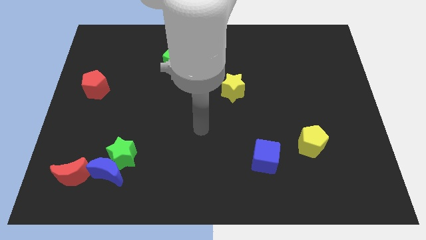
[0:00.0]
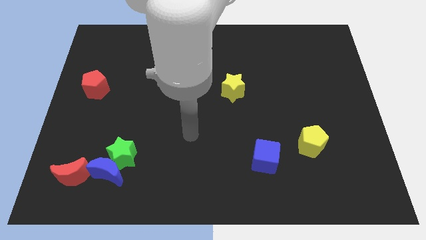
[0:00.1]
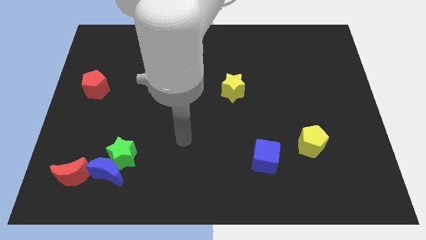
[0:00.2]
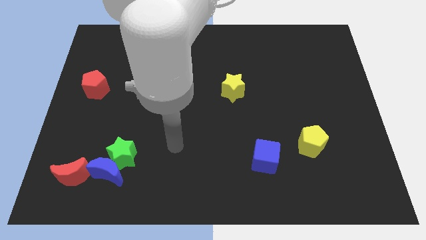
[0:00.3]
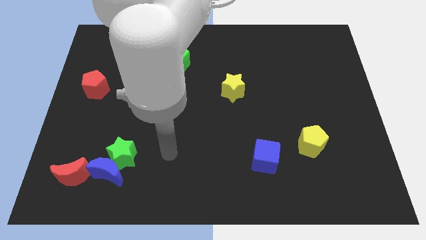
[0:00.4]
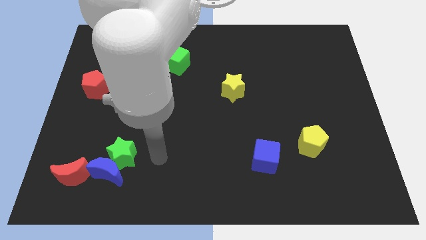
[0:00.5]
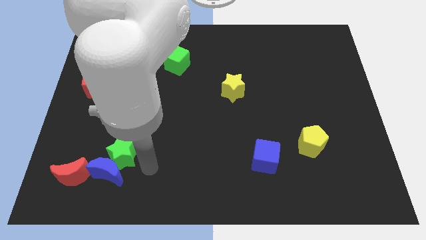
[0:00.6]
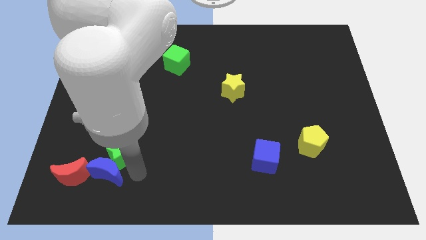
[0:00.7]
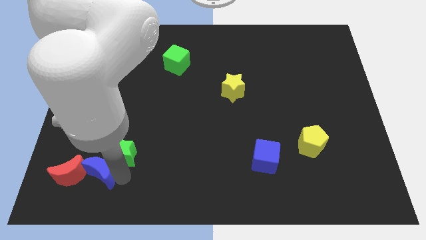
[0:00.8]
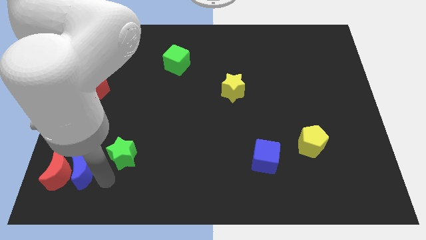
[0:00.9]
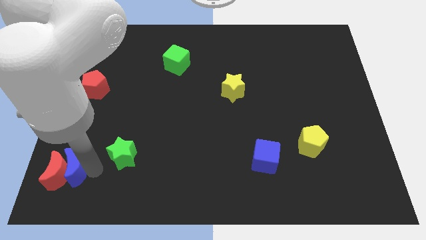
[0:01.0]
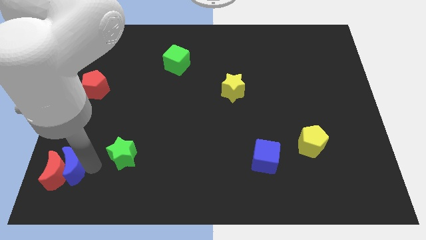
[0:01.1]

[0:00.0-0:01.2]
move the green star away from the blue moon

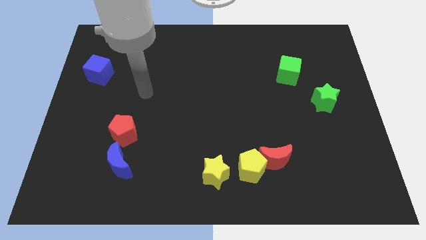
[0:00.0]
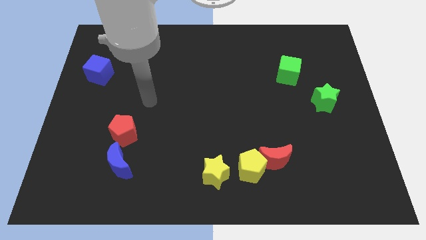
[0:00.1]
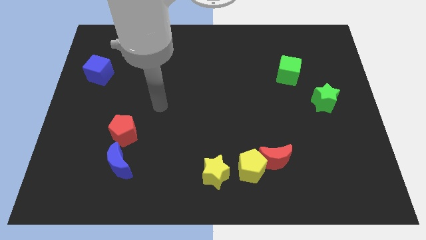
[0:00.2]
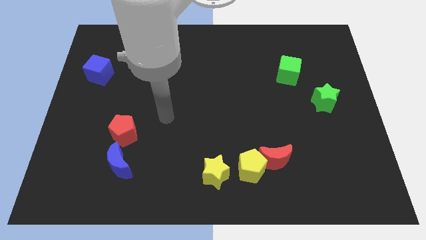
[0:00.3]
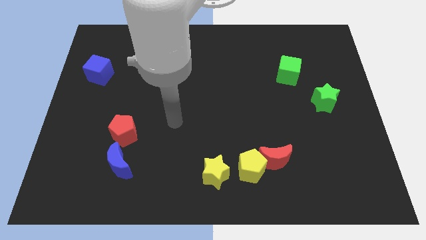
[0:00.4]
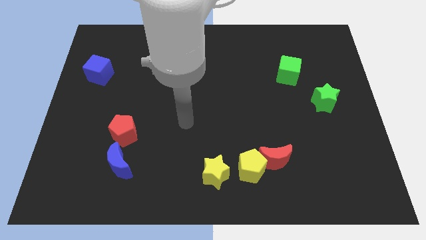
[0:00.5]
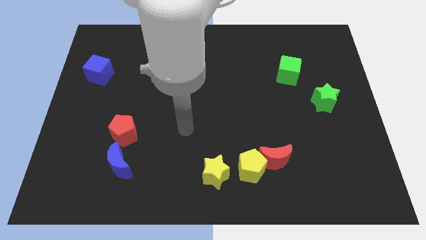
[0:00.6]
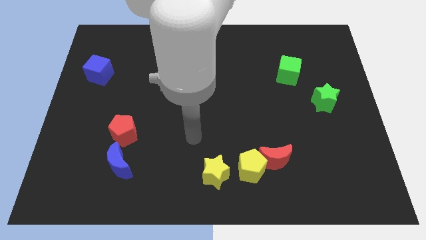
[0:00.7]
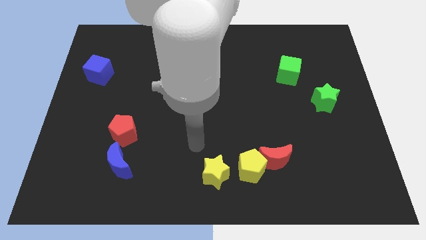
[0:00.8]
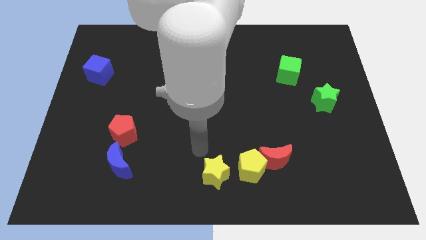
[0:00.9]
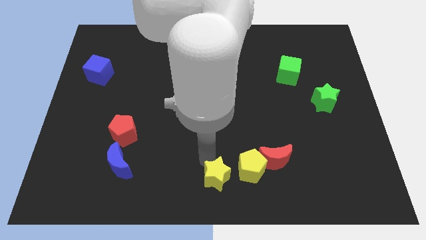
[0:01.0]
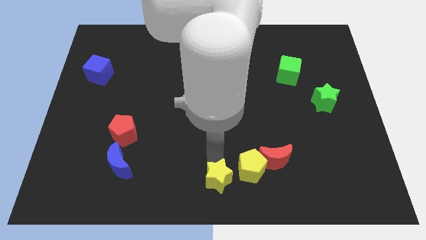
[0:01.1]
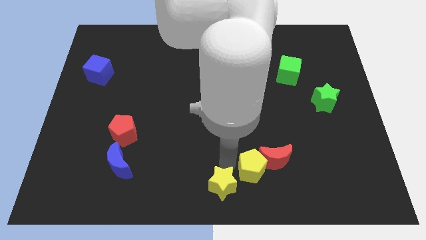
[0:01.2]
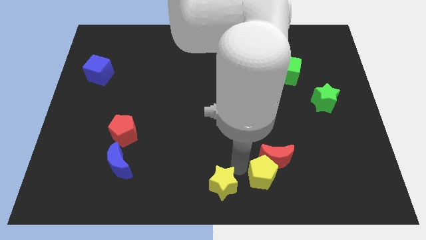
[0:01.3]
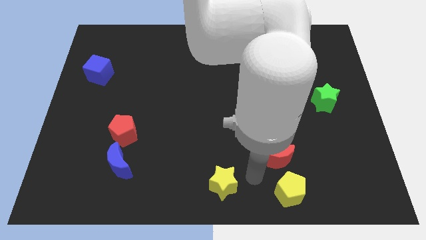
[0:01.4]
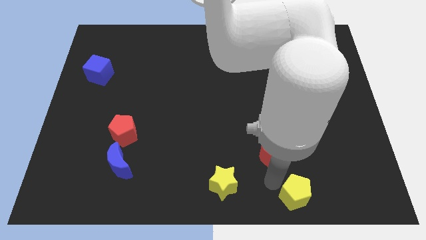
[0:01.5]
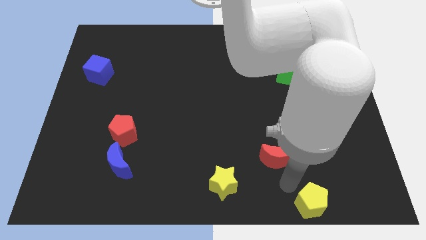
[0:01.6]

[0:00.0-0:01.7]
move the red moon away from the yellow pentagon

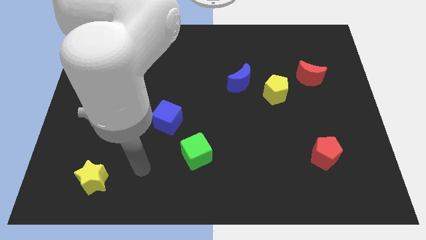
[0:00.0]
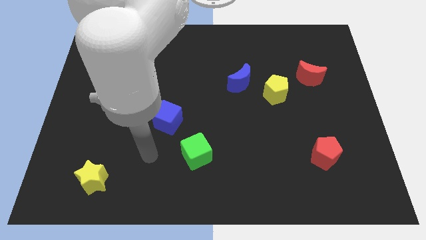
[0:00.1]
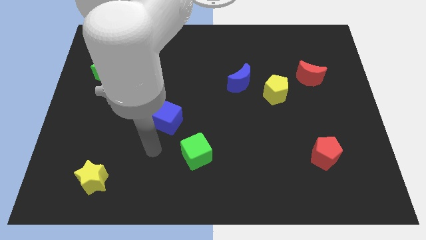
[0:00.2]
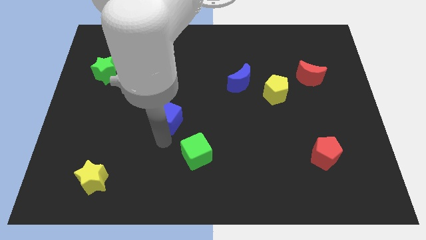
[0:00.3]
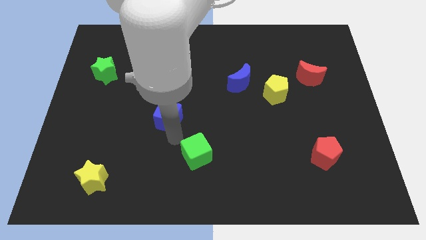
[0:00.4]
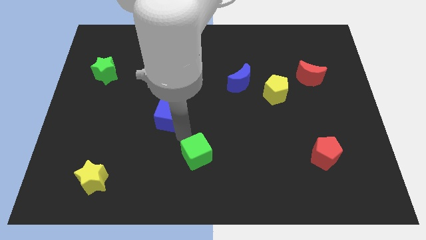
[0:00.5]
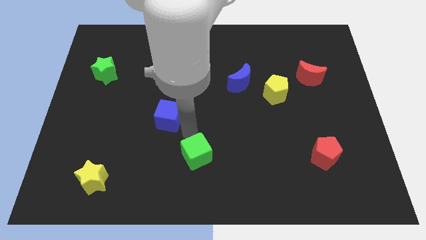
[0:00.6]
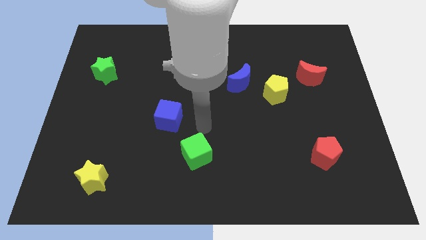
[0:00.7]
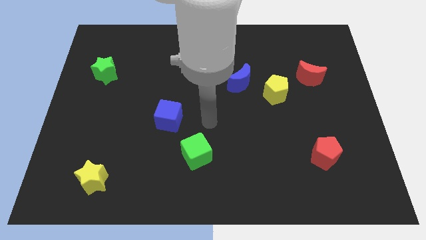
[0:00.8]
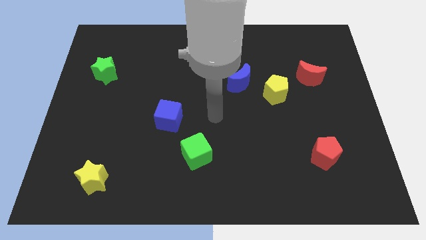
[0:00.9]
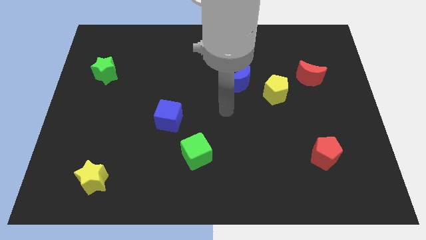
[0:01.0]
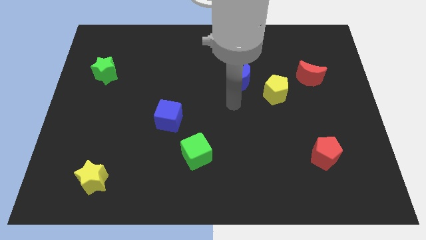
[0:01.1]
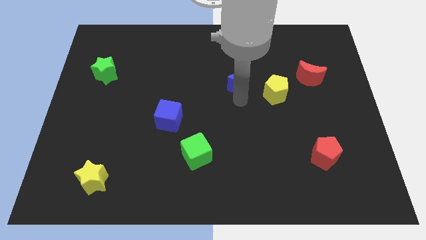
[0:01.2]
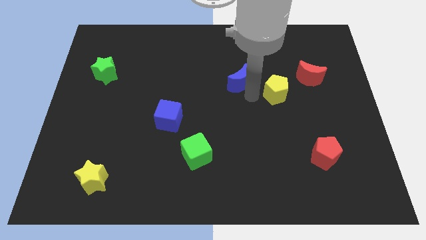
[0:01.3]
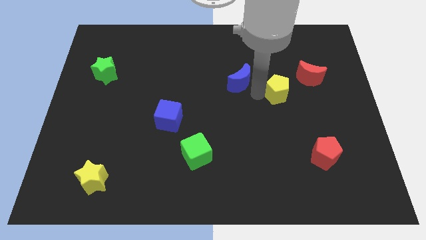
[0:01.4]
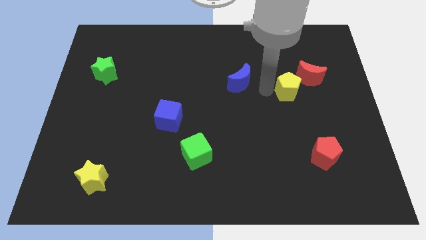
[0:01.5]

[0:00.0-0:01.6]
move the blue moon away from the yellow pentagon

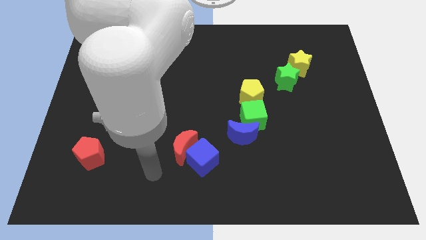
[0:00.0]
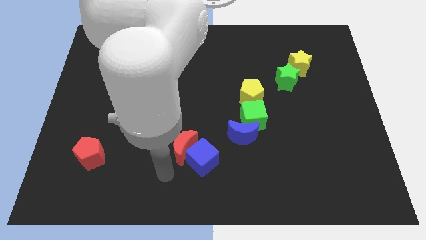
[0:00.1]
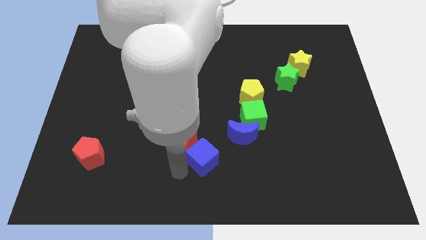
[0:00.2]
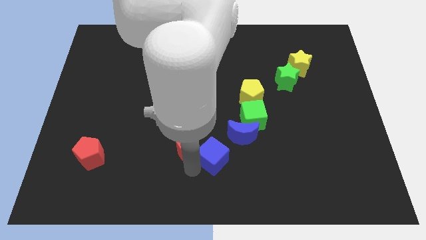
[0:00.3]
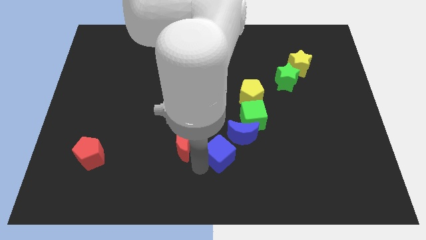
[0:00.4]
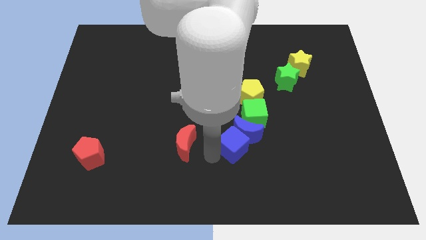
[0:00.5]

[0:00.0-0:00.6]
move the red moon away from the blue cube

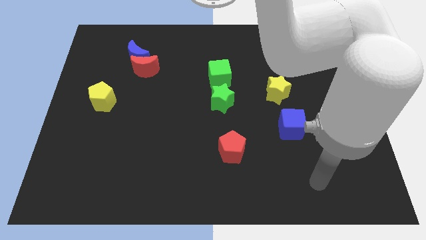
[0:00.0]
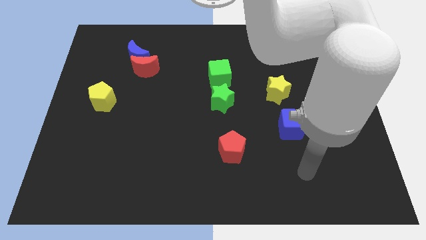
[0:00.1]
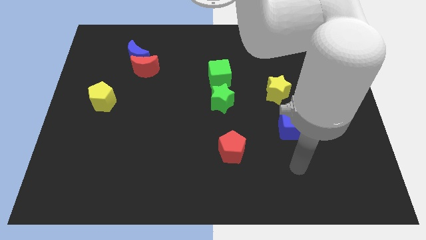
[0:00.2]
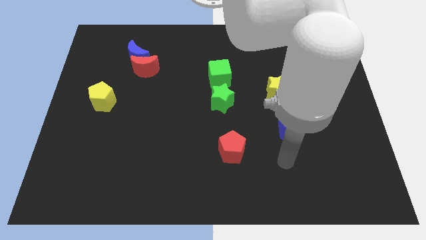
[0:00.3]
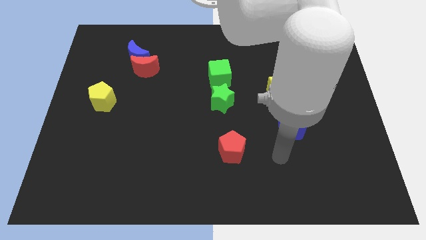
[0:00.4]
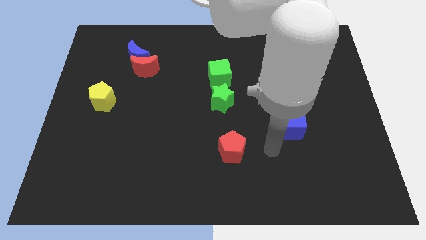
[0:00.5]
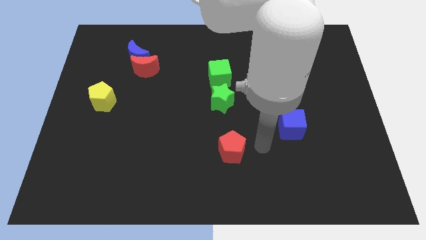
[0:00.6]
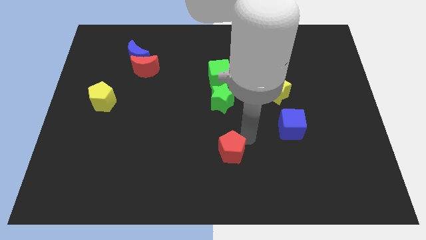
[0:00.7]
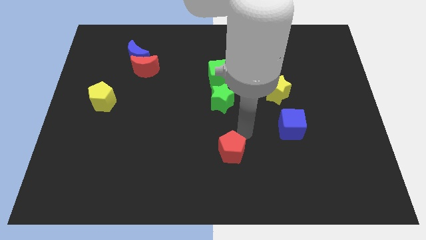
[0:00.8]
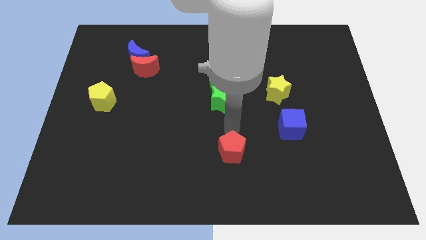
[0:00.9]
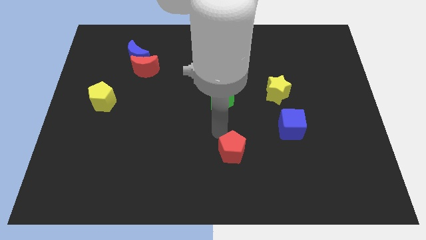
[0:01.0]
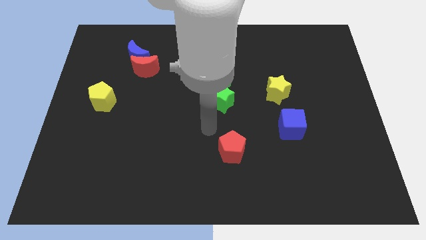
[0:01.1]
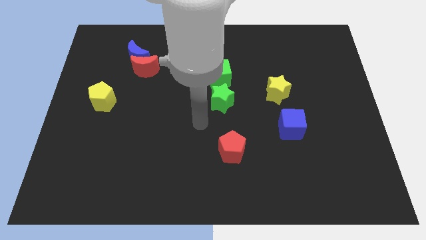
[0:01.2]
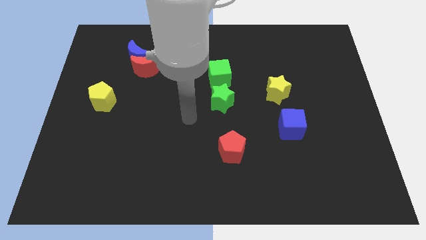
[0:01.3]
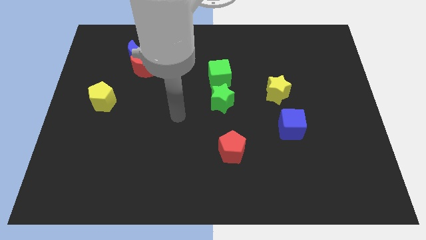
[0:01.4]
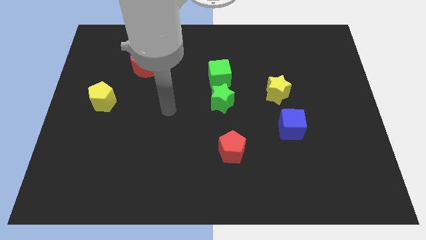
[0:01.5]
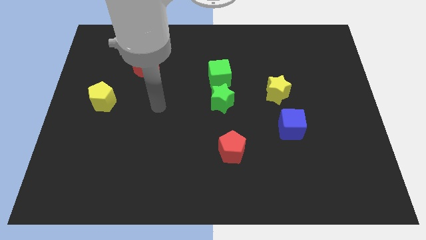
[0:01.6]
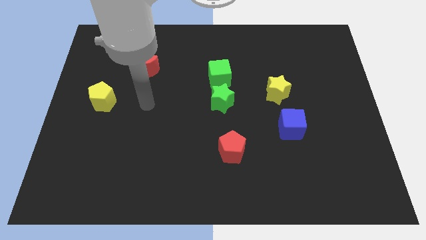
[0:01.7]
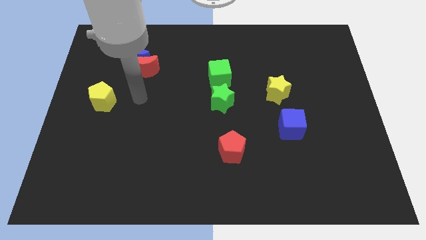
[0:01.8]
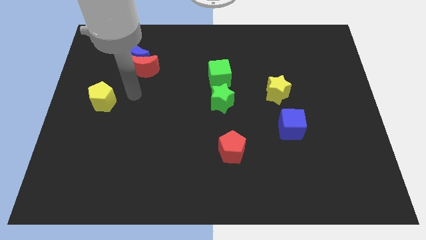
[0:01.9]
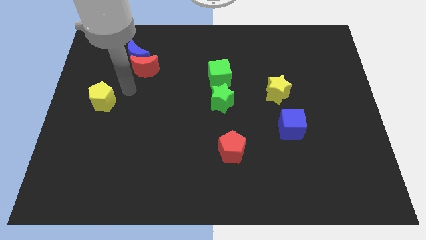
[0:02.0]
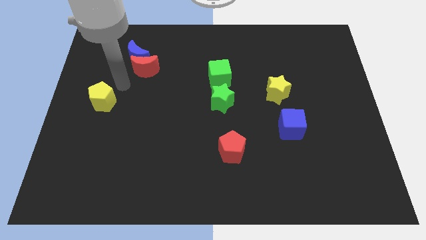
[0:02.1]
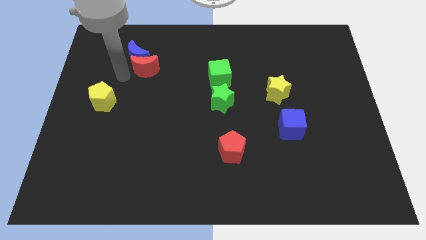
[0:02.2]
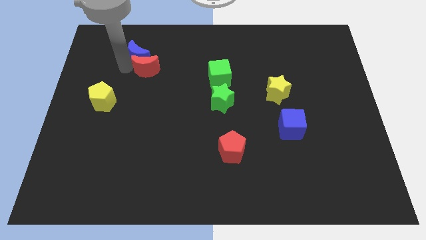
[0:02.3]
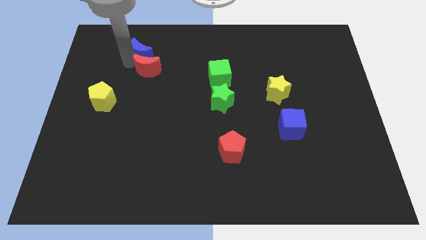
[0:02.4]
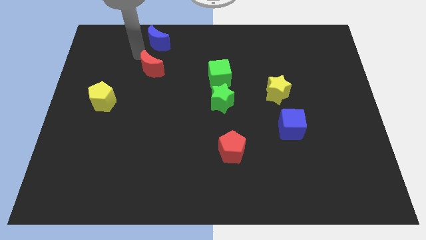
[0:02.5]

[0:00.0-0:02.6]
separate the red moon from the blue moon

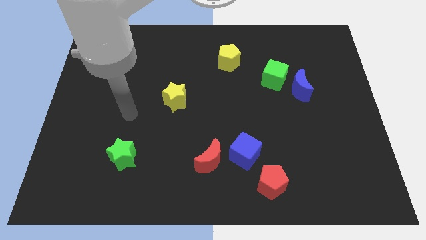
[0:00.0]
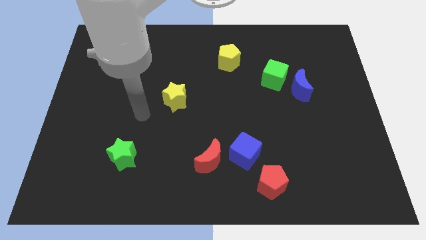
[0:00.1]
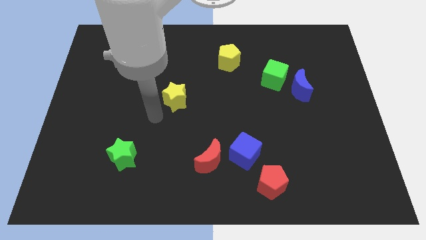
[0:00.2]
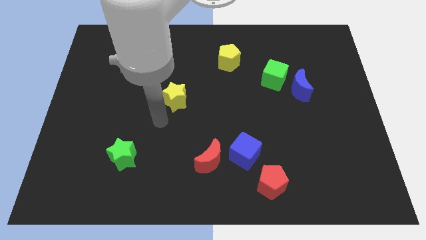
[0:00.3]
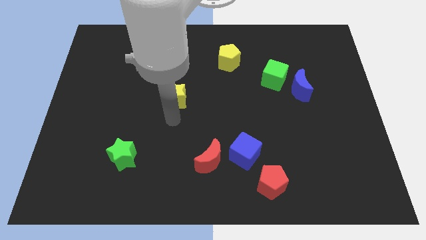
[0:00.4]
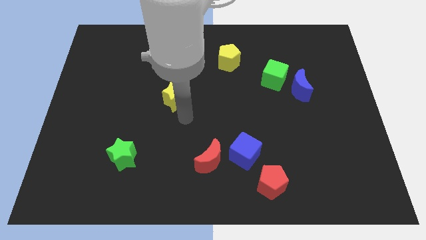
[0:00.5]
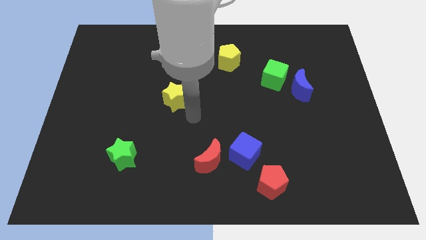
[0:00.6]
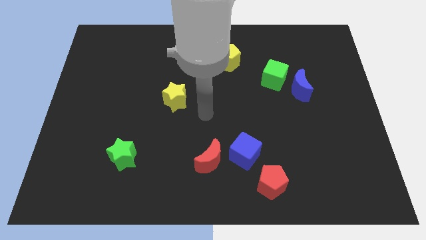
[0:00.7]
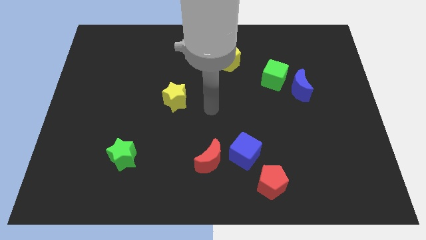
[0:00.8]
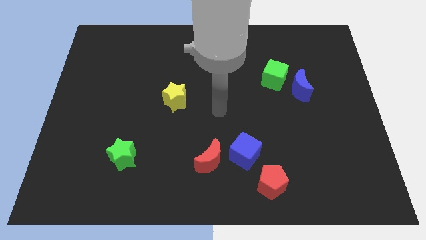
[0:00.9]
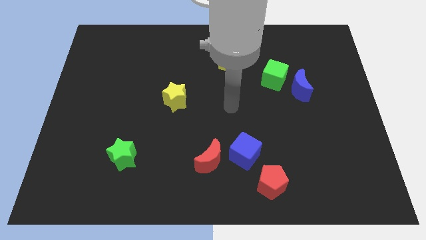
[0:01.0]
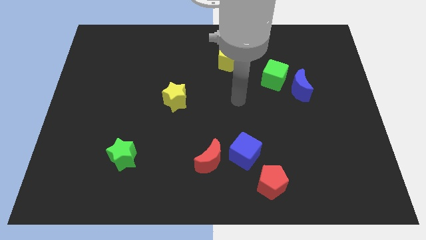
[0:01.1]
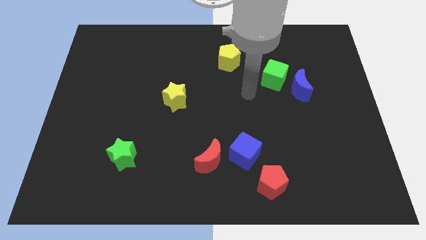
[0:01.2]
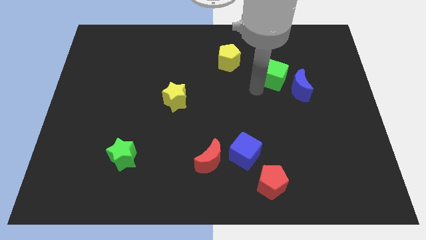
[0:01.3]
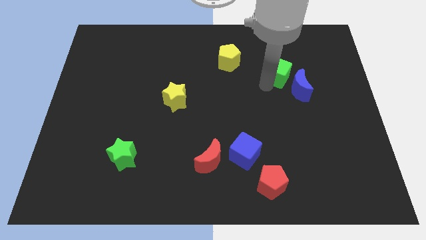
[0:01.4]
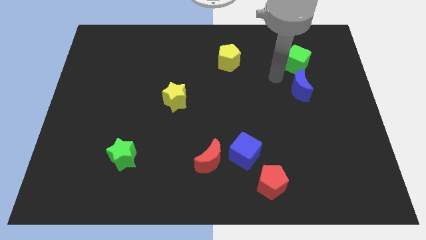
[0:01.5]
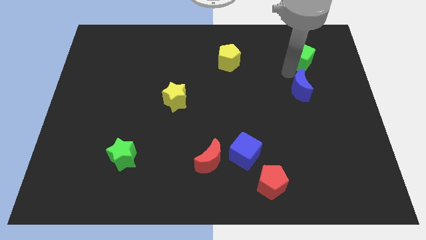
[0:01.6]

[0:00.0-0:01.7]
separate the blue moon from the green cube
